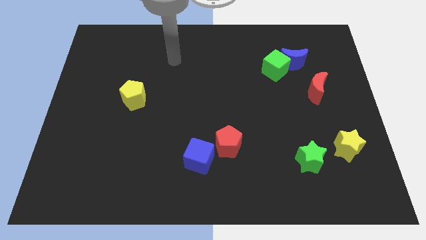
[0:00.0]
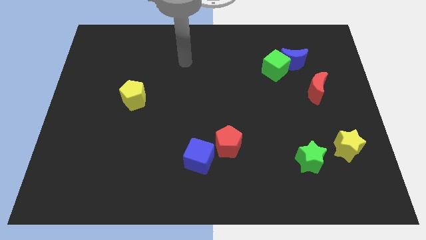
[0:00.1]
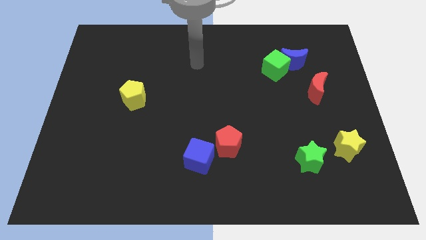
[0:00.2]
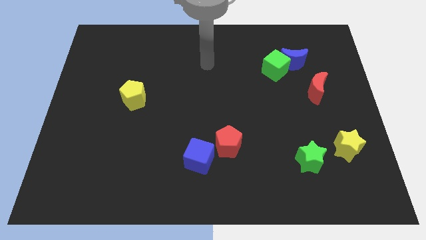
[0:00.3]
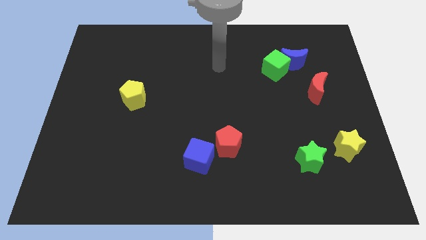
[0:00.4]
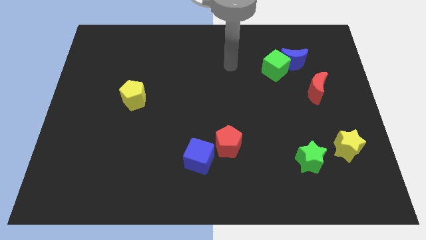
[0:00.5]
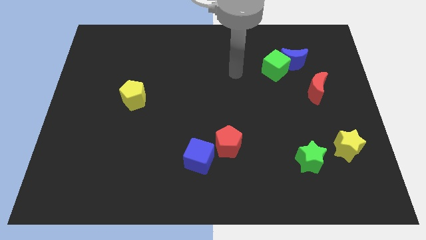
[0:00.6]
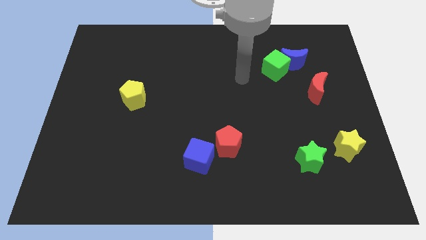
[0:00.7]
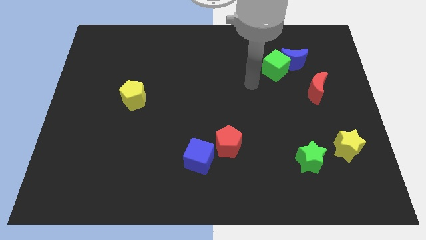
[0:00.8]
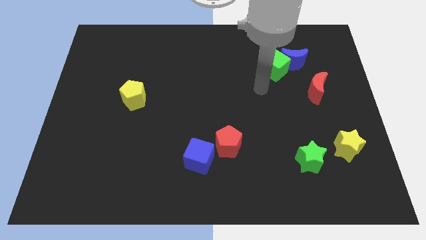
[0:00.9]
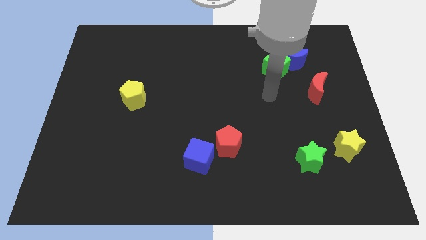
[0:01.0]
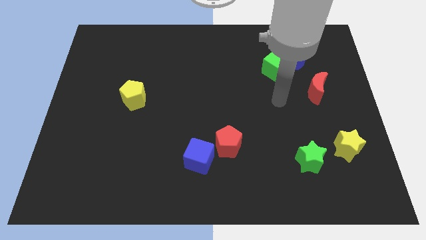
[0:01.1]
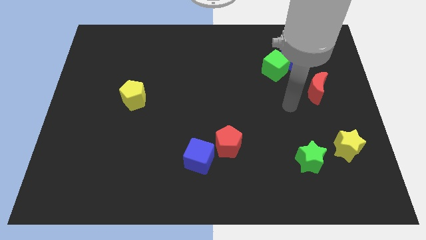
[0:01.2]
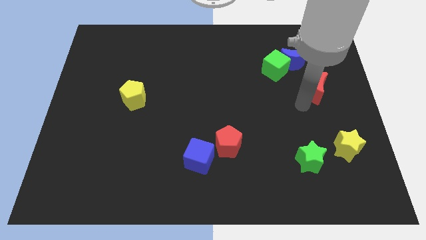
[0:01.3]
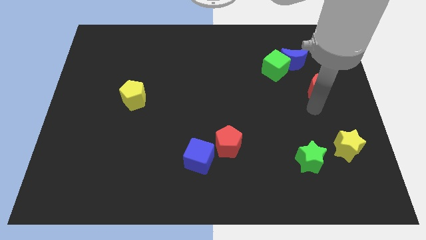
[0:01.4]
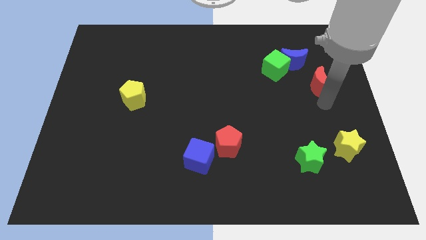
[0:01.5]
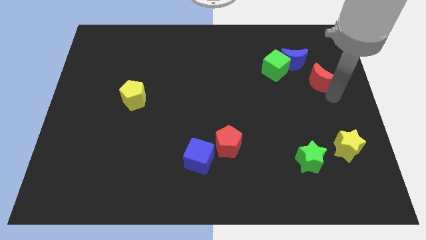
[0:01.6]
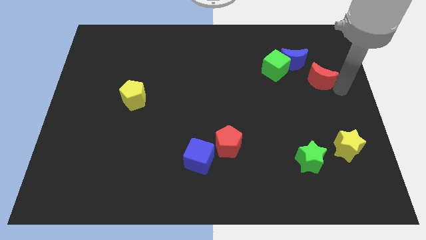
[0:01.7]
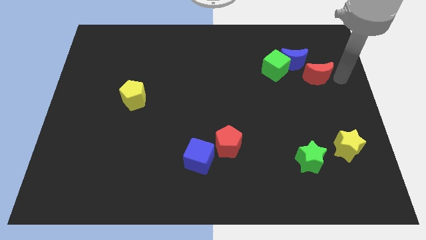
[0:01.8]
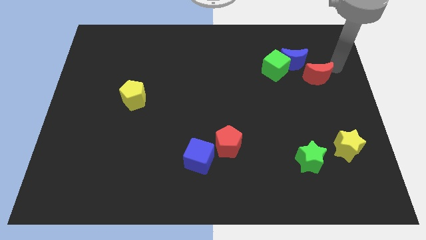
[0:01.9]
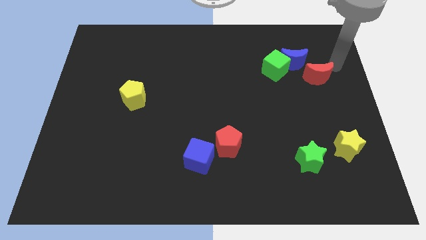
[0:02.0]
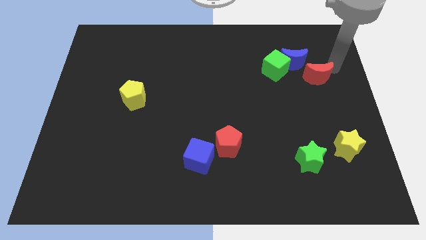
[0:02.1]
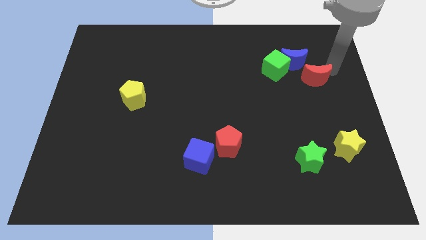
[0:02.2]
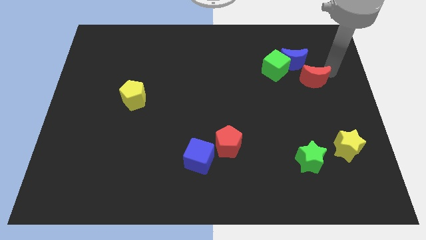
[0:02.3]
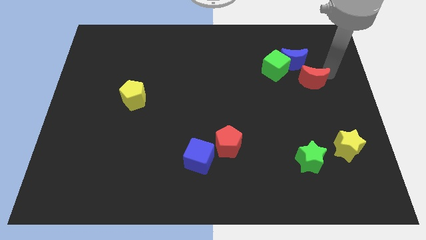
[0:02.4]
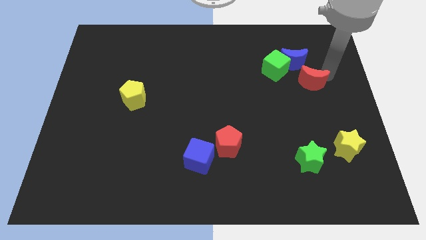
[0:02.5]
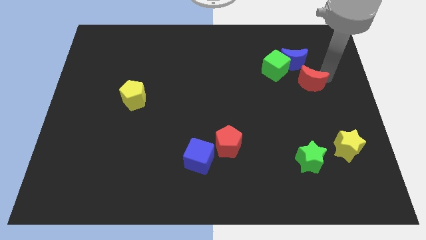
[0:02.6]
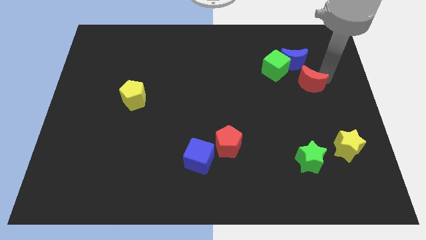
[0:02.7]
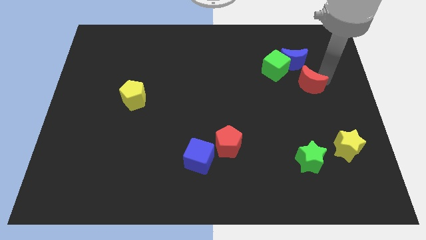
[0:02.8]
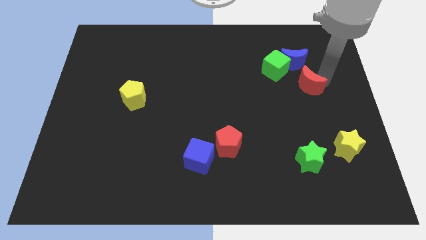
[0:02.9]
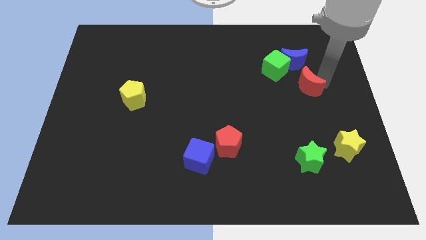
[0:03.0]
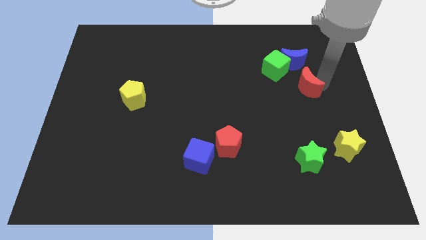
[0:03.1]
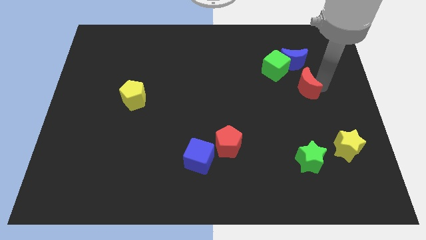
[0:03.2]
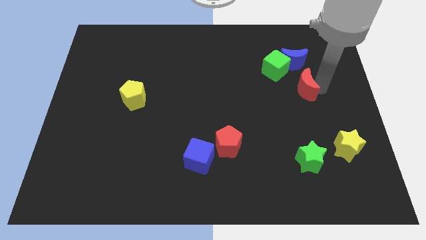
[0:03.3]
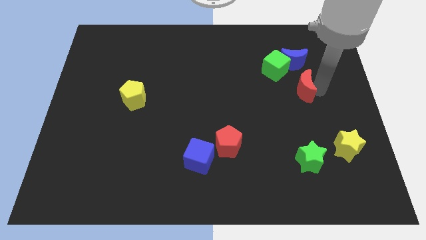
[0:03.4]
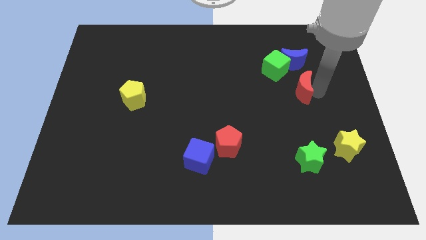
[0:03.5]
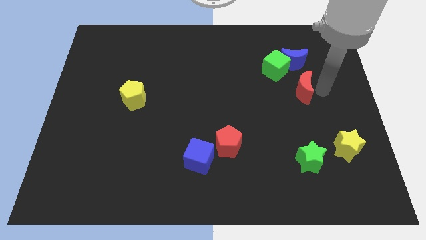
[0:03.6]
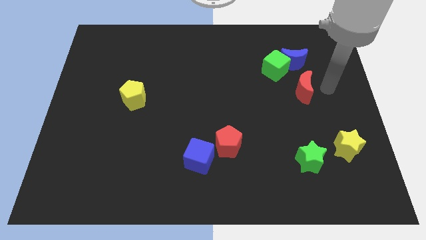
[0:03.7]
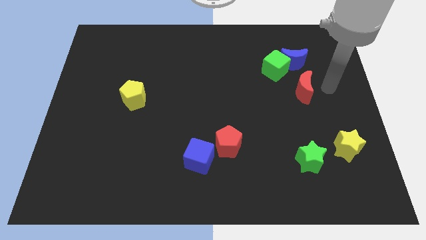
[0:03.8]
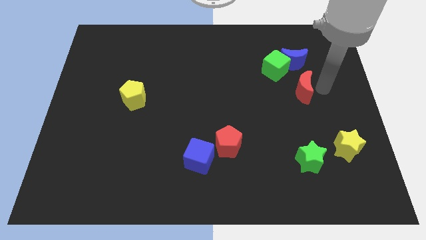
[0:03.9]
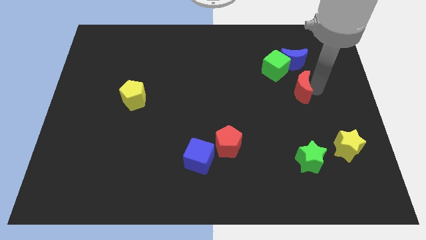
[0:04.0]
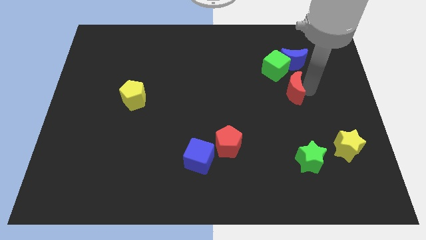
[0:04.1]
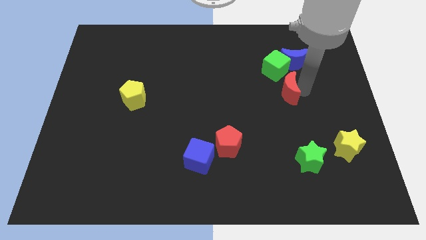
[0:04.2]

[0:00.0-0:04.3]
push the red moon somewhat left

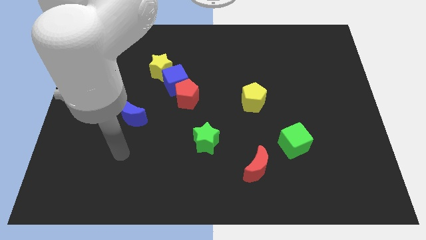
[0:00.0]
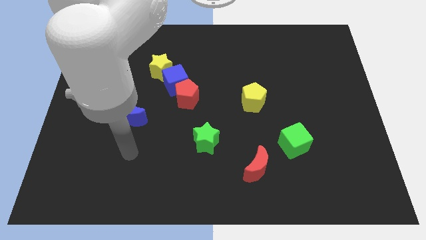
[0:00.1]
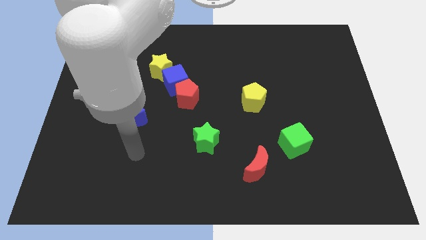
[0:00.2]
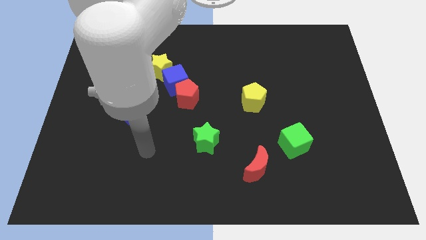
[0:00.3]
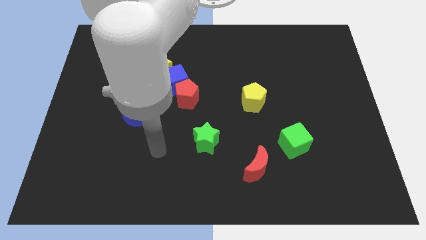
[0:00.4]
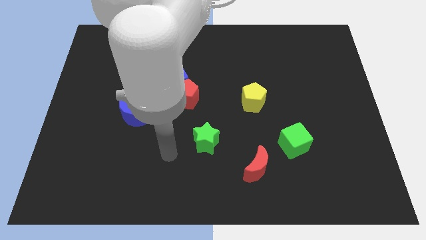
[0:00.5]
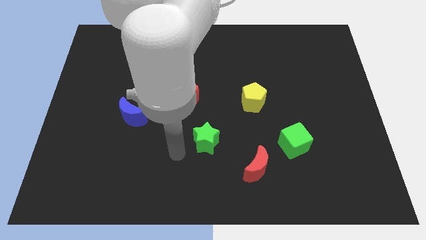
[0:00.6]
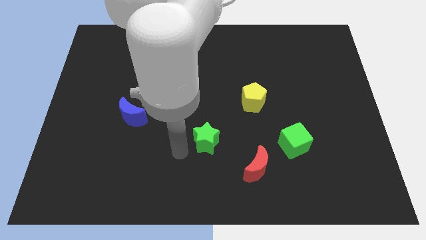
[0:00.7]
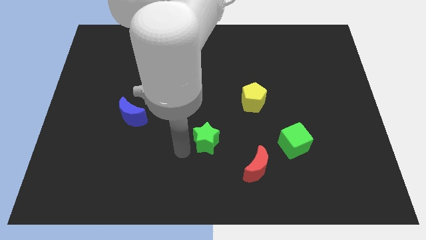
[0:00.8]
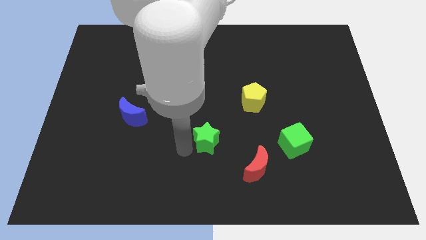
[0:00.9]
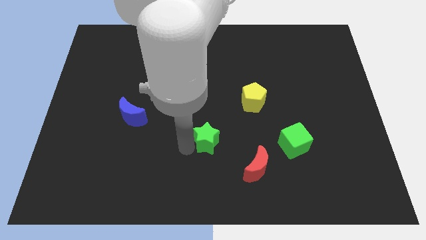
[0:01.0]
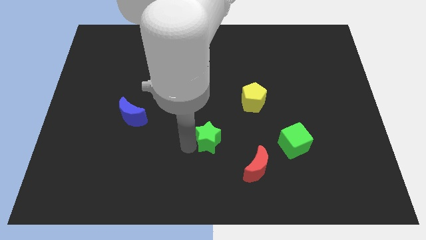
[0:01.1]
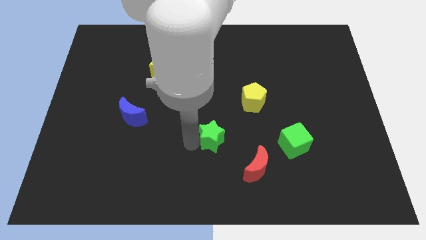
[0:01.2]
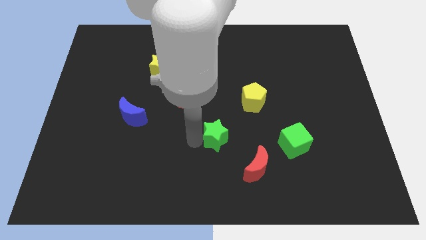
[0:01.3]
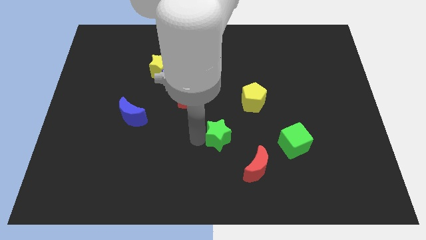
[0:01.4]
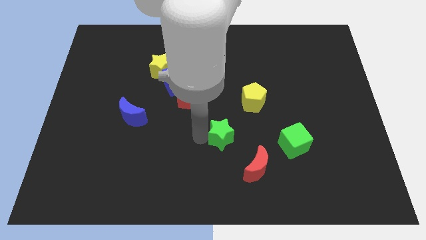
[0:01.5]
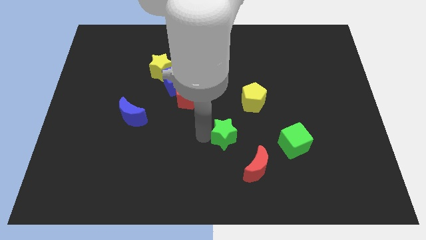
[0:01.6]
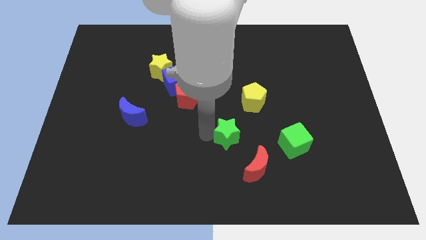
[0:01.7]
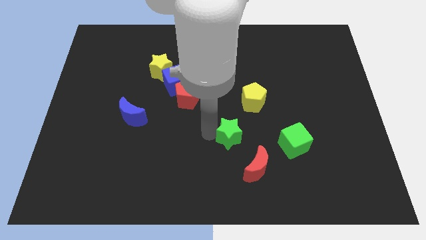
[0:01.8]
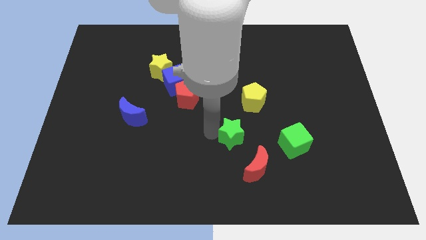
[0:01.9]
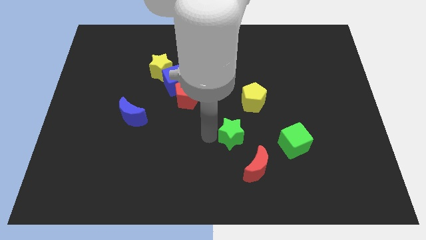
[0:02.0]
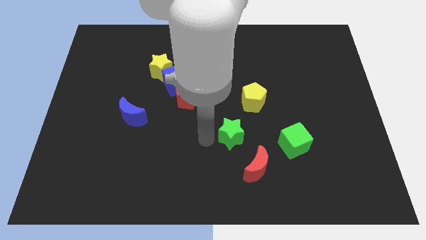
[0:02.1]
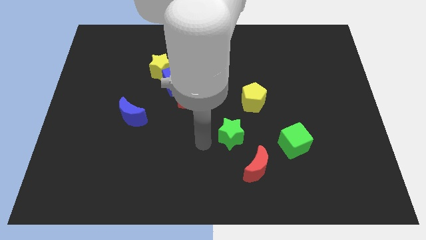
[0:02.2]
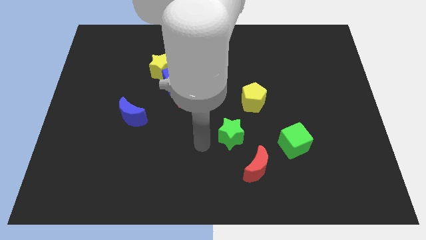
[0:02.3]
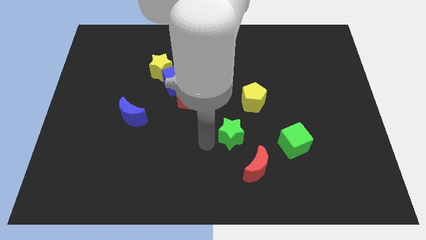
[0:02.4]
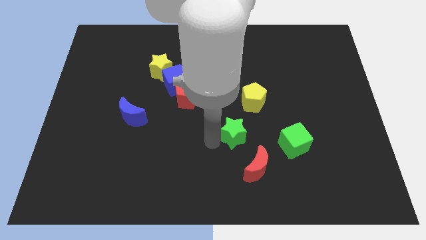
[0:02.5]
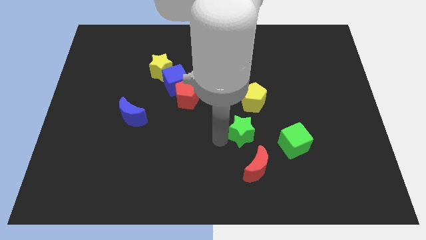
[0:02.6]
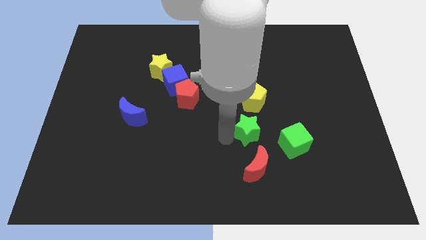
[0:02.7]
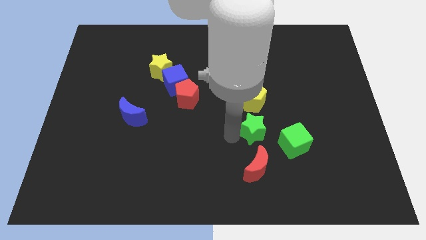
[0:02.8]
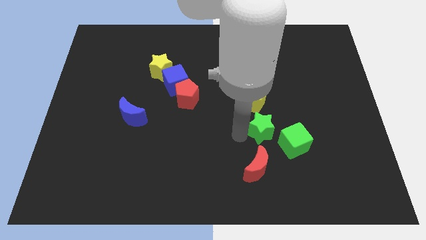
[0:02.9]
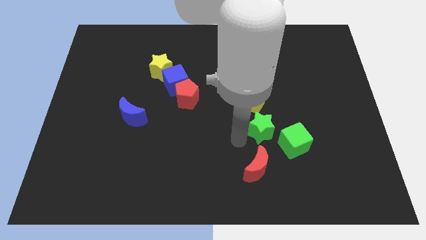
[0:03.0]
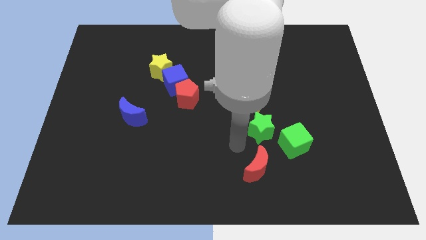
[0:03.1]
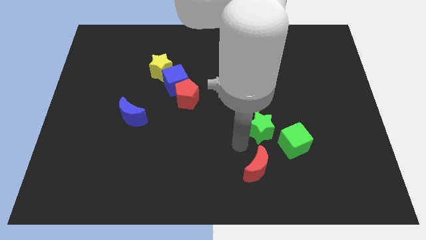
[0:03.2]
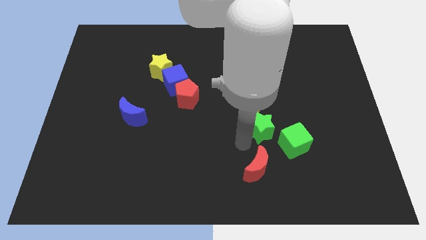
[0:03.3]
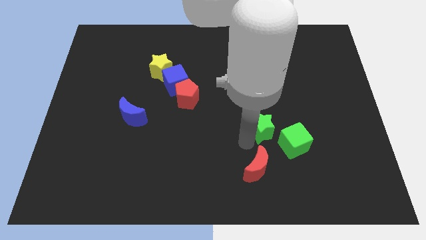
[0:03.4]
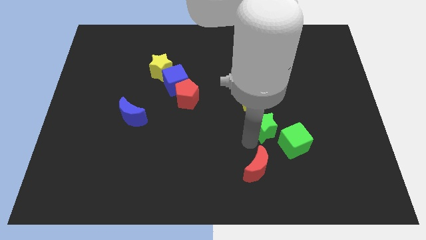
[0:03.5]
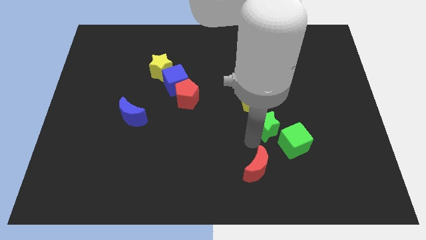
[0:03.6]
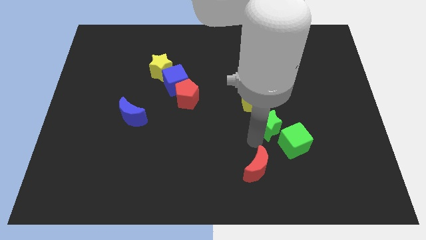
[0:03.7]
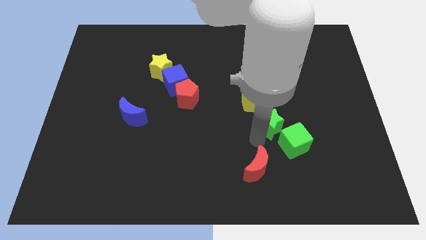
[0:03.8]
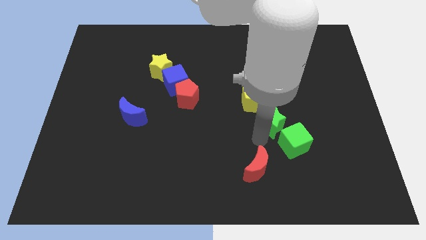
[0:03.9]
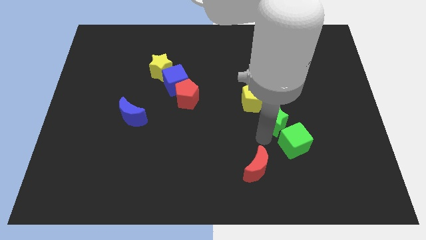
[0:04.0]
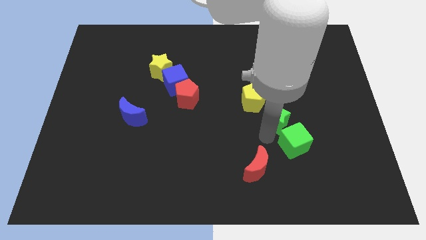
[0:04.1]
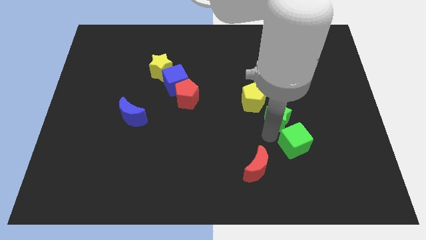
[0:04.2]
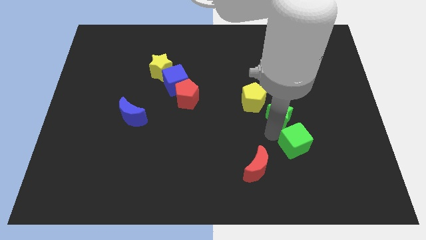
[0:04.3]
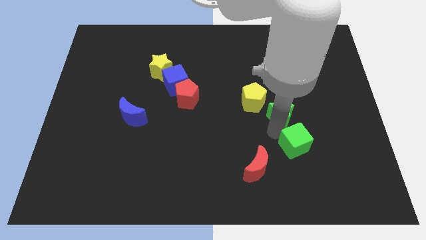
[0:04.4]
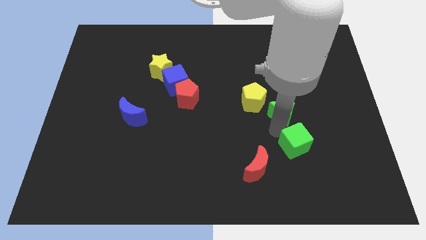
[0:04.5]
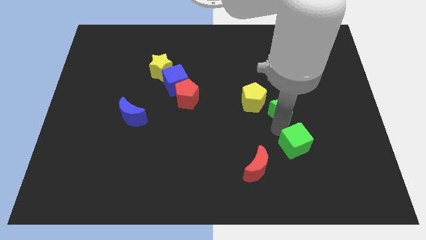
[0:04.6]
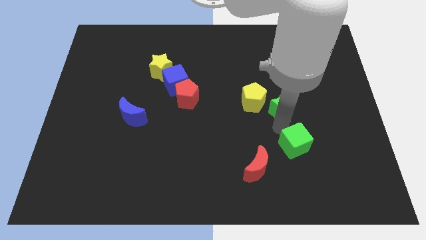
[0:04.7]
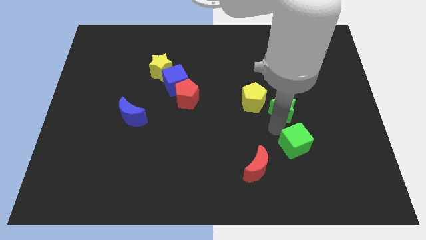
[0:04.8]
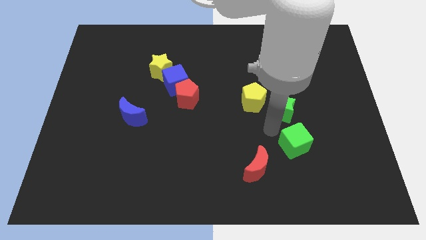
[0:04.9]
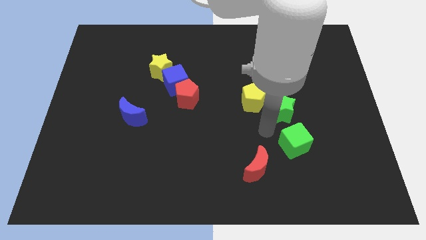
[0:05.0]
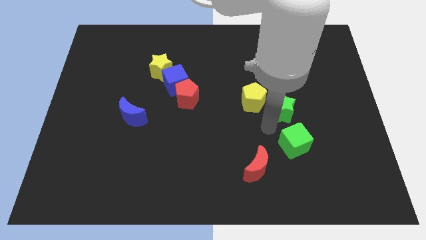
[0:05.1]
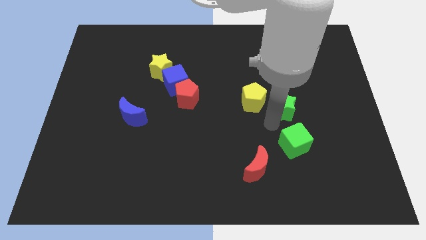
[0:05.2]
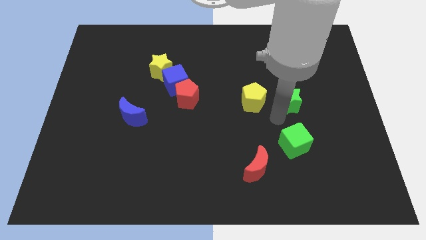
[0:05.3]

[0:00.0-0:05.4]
slide the green star up and then to the right
